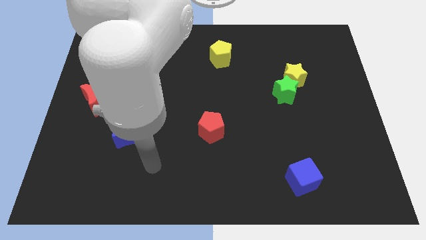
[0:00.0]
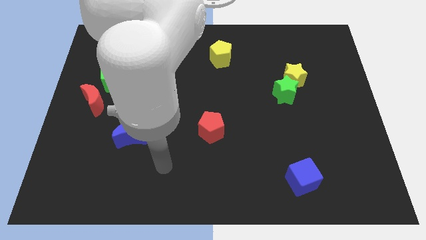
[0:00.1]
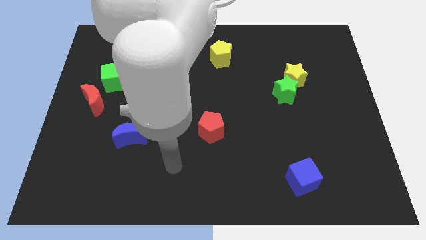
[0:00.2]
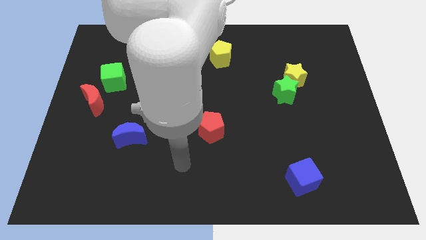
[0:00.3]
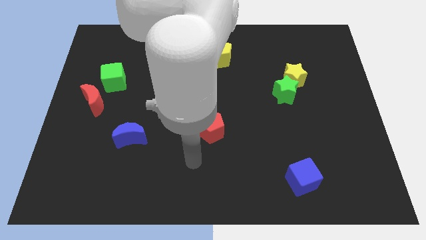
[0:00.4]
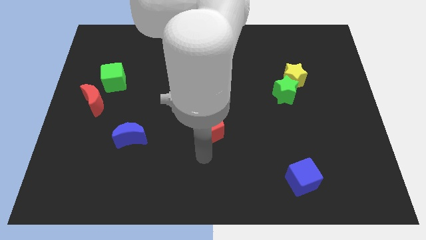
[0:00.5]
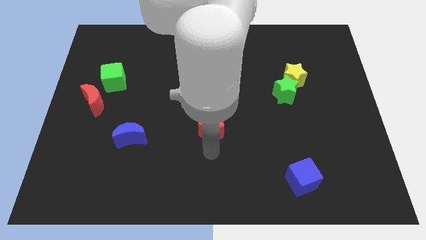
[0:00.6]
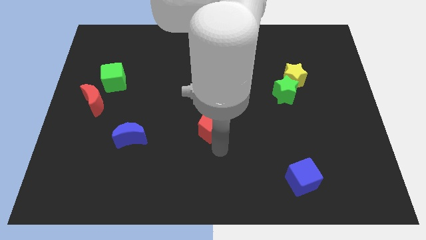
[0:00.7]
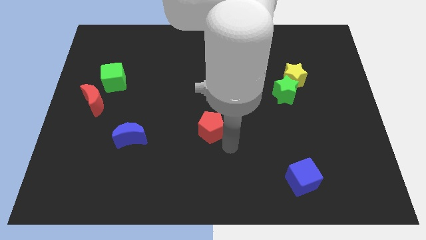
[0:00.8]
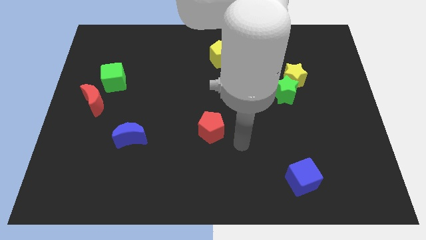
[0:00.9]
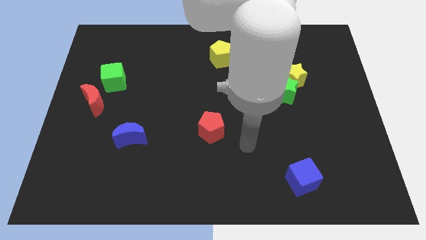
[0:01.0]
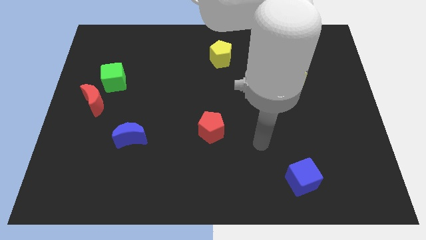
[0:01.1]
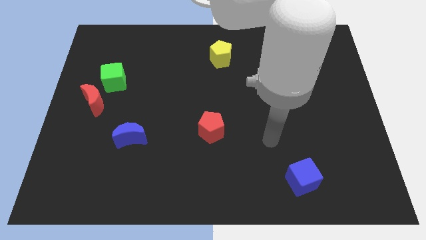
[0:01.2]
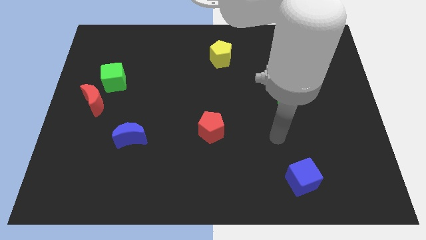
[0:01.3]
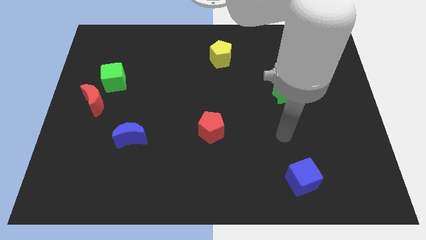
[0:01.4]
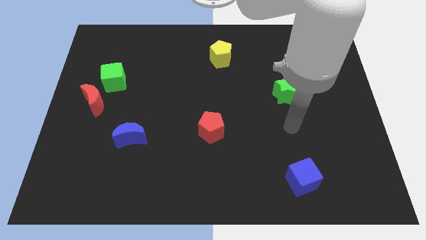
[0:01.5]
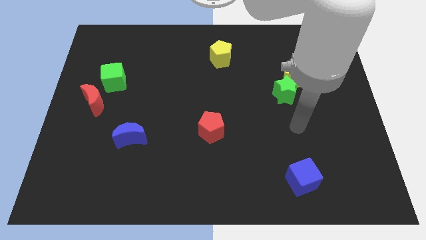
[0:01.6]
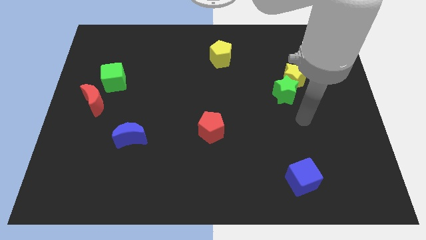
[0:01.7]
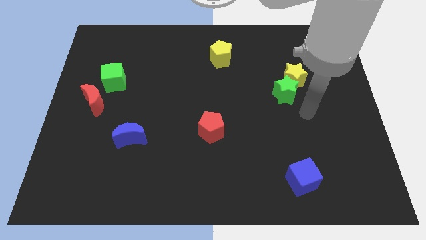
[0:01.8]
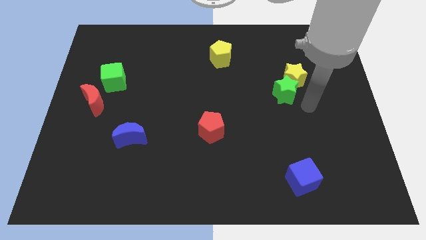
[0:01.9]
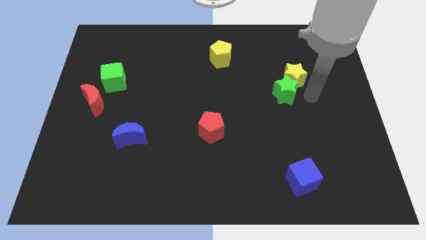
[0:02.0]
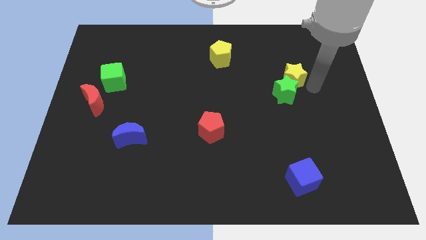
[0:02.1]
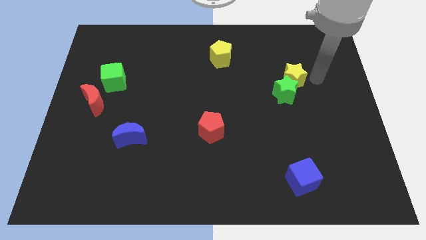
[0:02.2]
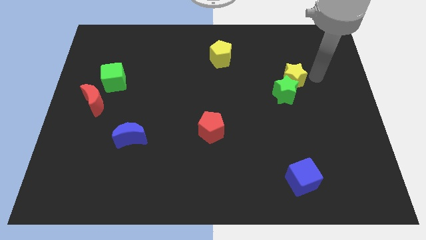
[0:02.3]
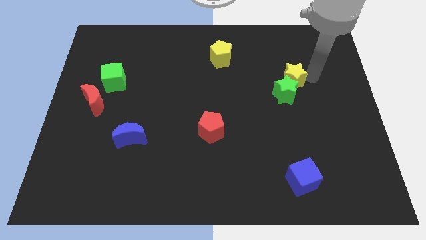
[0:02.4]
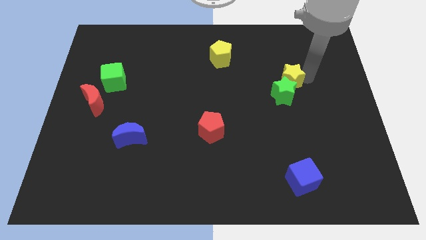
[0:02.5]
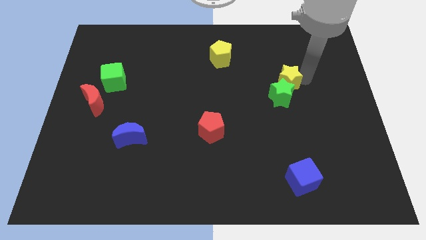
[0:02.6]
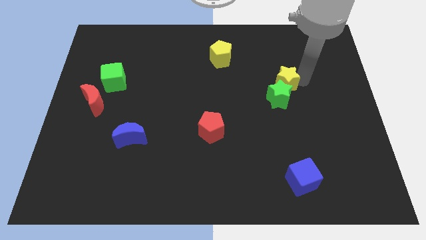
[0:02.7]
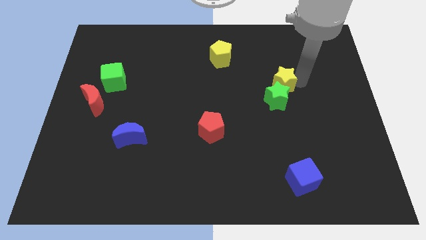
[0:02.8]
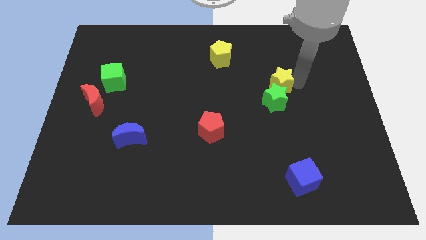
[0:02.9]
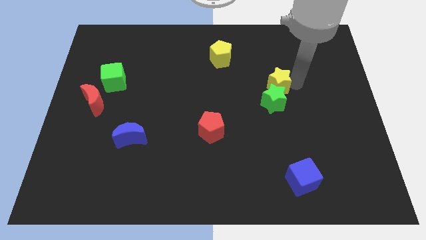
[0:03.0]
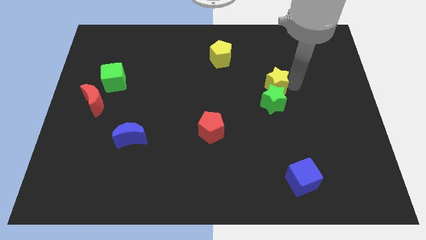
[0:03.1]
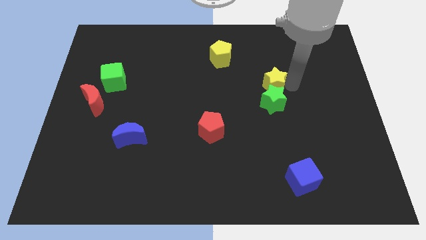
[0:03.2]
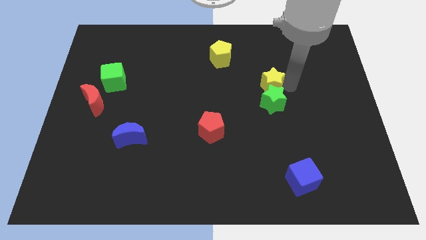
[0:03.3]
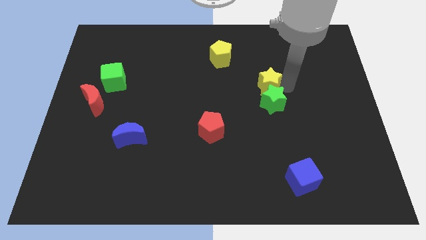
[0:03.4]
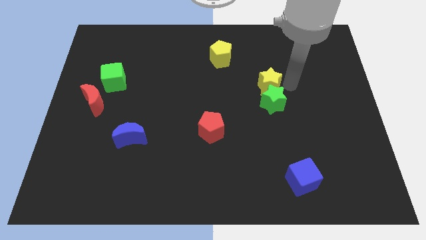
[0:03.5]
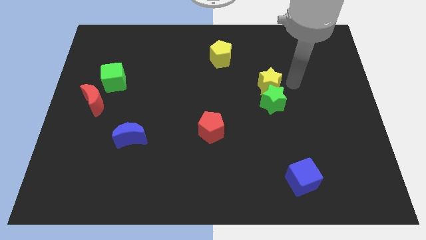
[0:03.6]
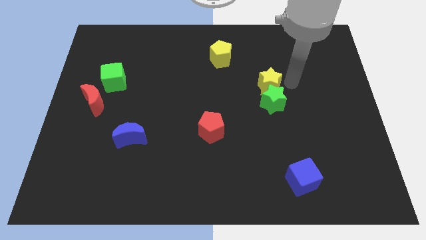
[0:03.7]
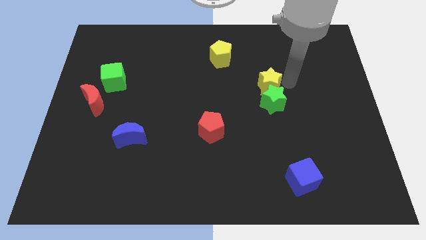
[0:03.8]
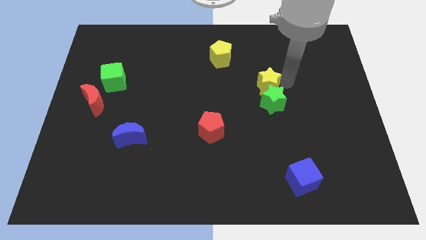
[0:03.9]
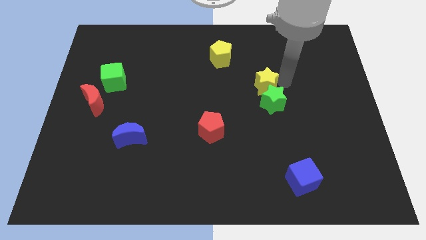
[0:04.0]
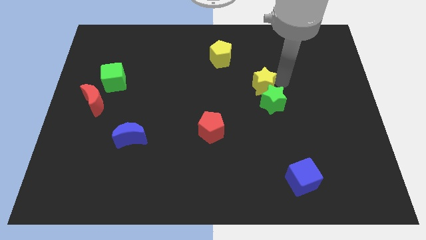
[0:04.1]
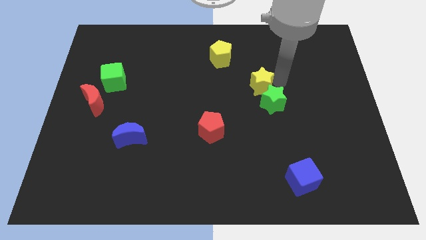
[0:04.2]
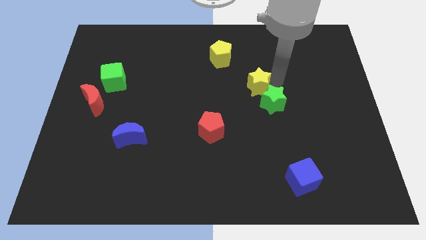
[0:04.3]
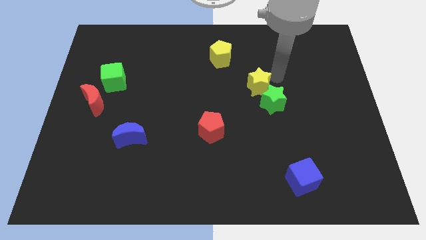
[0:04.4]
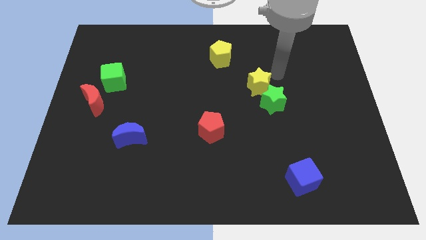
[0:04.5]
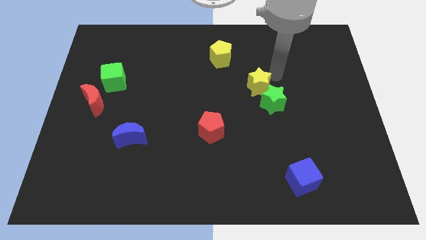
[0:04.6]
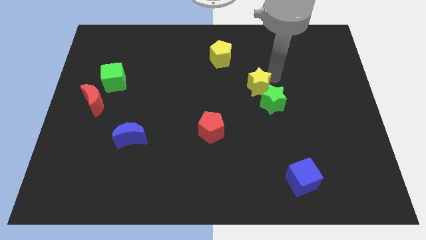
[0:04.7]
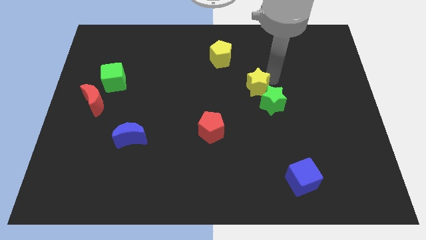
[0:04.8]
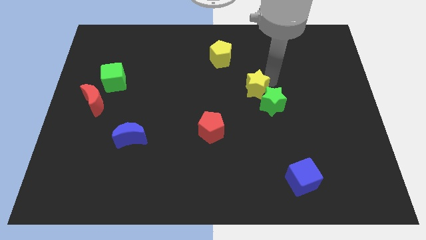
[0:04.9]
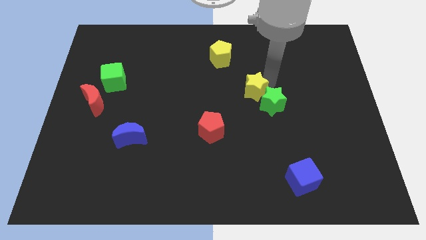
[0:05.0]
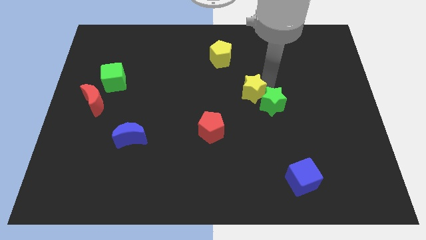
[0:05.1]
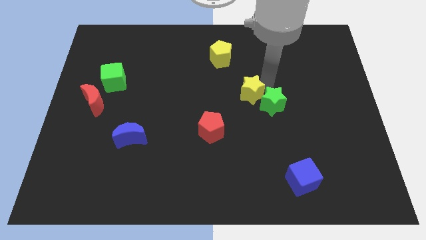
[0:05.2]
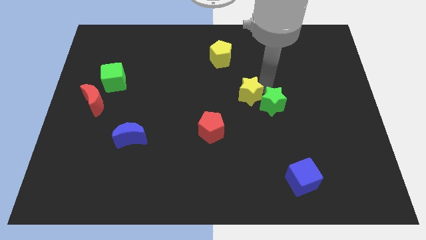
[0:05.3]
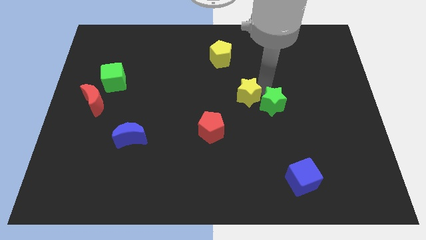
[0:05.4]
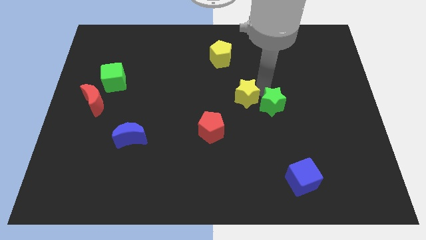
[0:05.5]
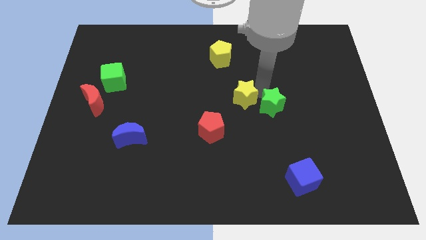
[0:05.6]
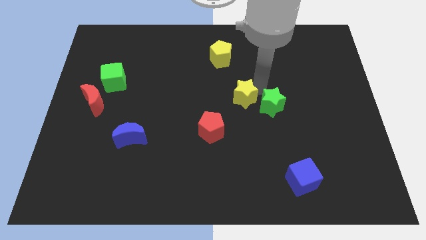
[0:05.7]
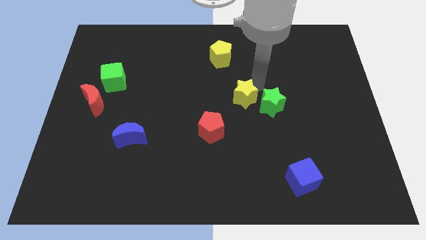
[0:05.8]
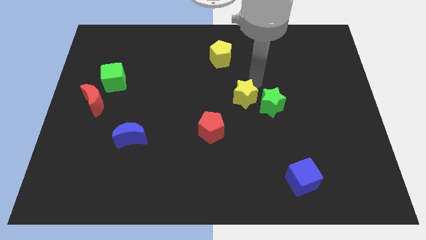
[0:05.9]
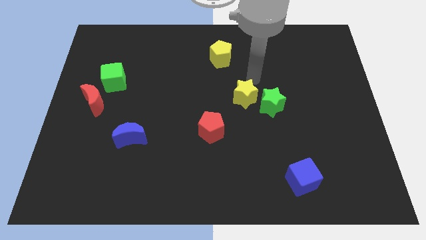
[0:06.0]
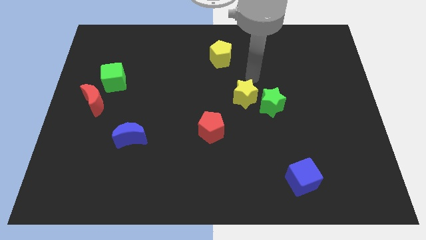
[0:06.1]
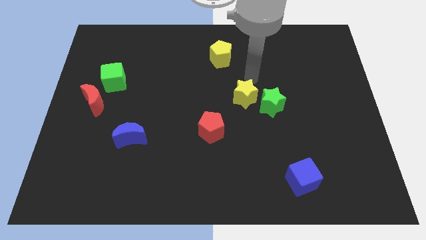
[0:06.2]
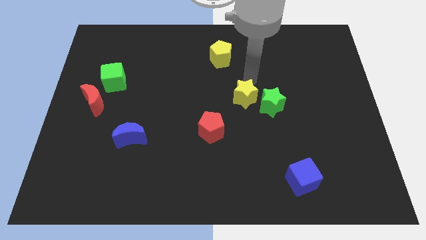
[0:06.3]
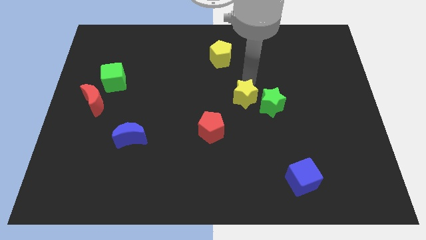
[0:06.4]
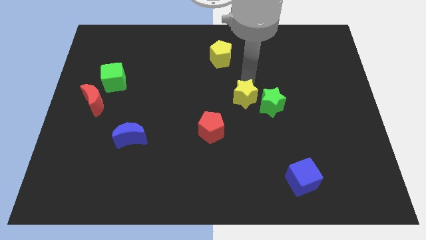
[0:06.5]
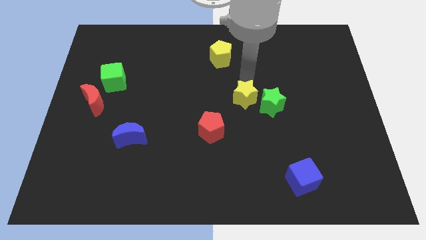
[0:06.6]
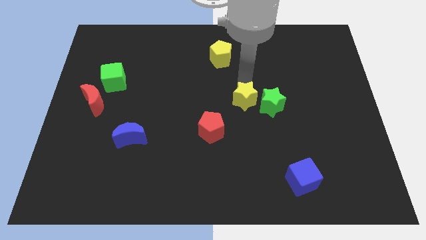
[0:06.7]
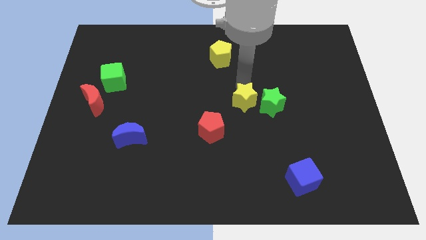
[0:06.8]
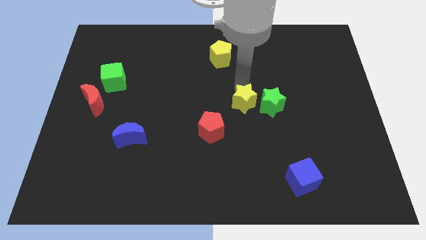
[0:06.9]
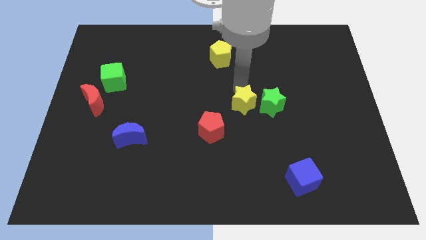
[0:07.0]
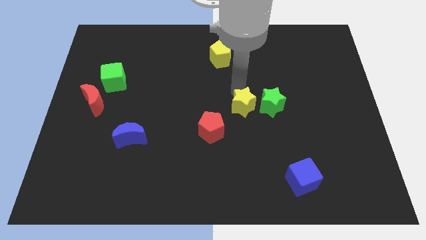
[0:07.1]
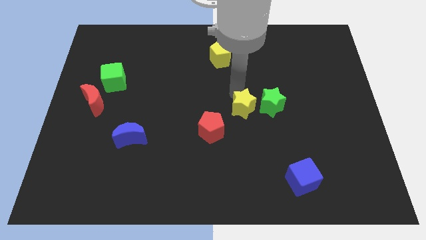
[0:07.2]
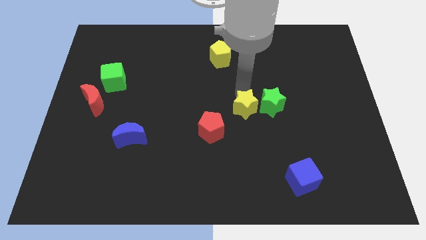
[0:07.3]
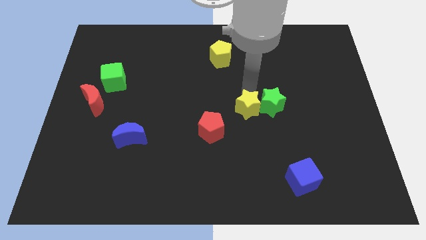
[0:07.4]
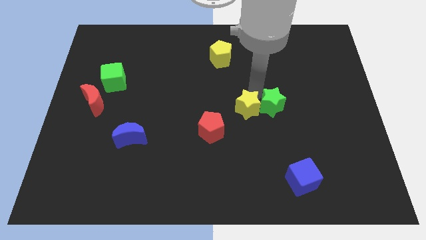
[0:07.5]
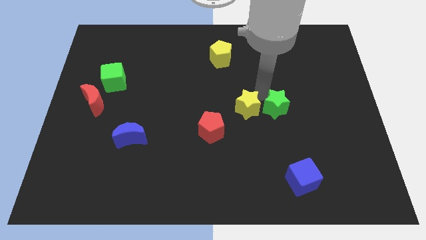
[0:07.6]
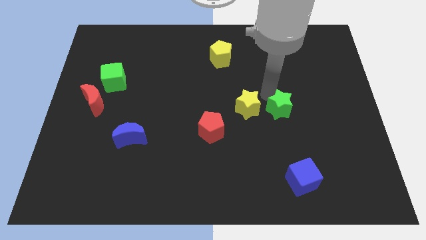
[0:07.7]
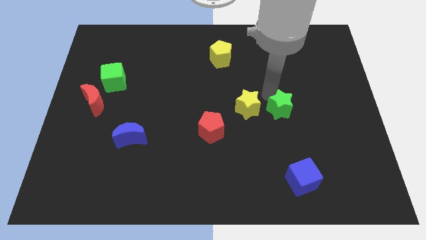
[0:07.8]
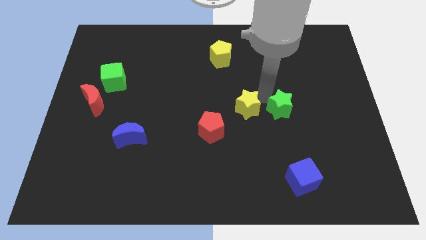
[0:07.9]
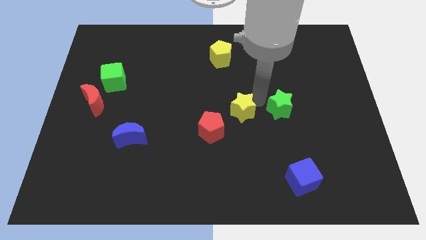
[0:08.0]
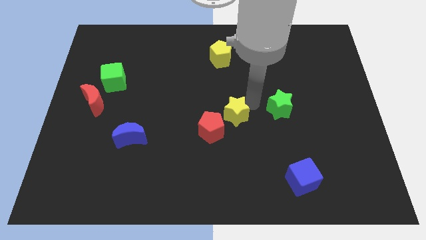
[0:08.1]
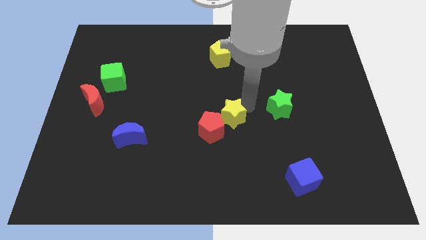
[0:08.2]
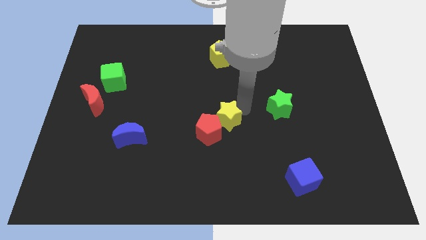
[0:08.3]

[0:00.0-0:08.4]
slide the yellow star next to the red pentagon

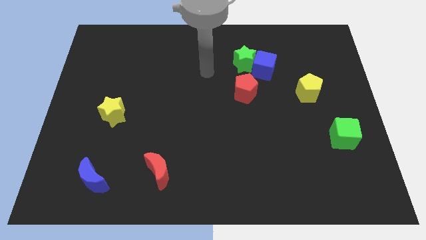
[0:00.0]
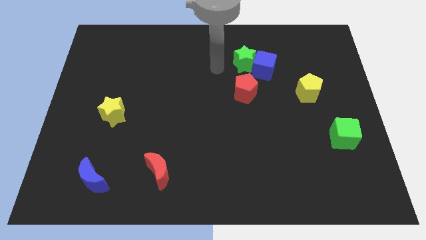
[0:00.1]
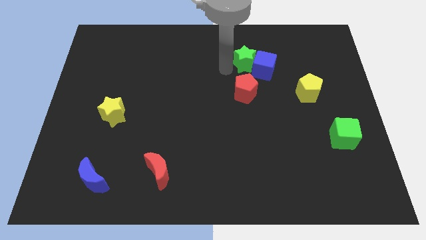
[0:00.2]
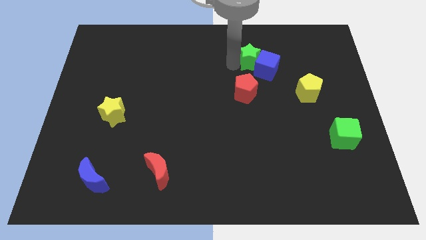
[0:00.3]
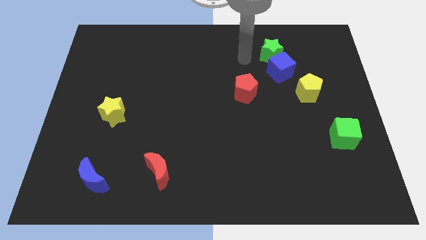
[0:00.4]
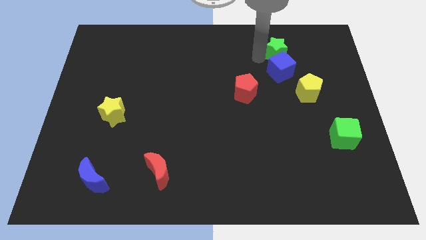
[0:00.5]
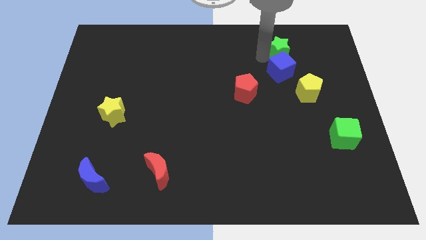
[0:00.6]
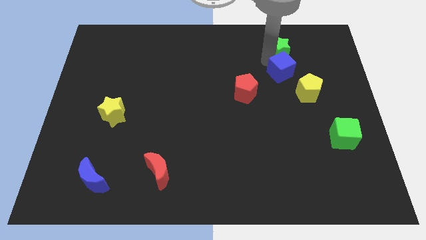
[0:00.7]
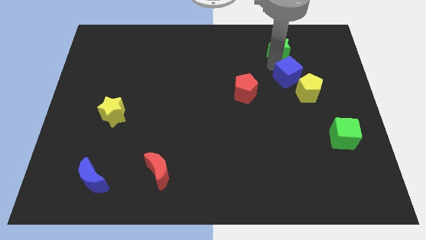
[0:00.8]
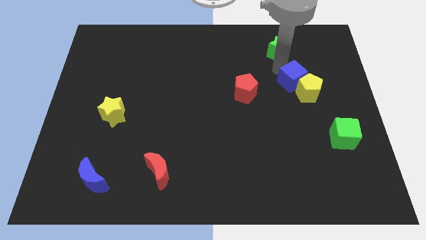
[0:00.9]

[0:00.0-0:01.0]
push the blue cube next to the yellow pentagon
